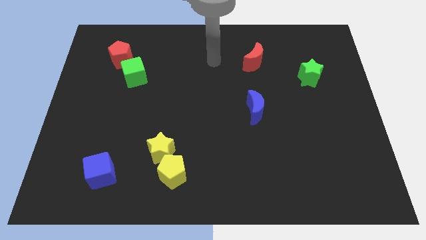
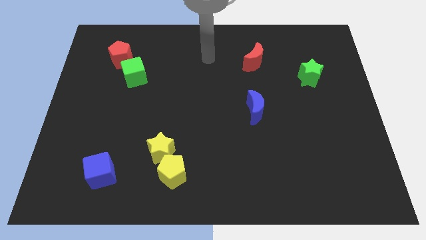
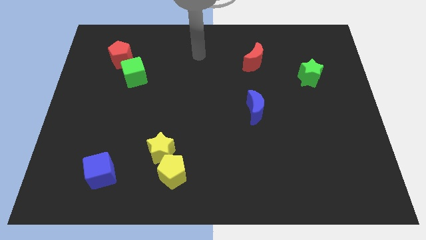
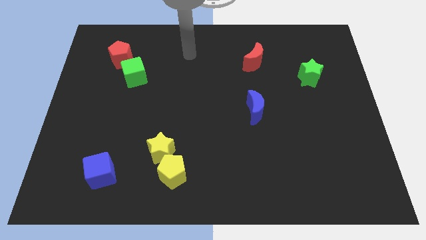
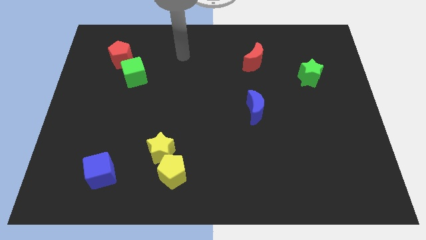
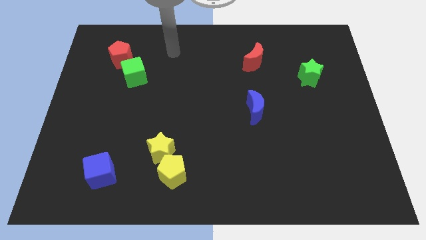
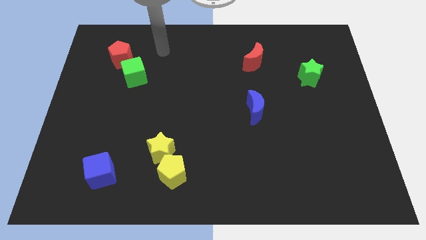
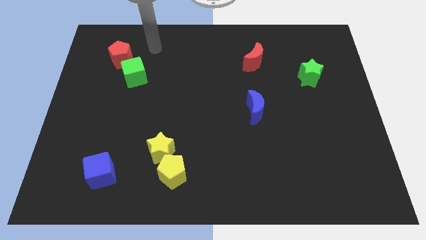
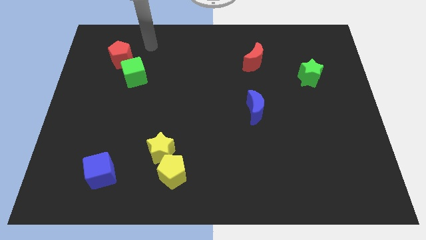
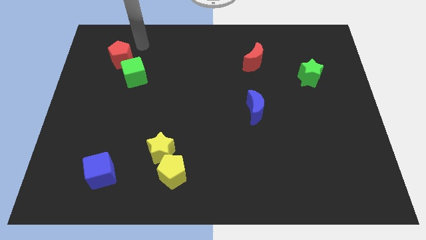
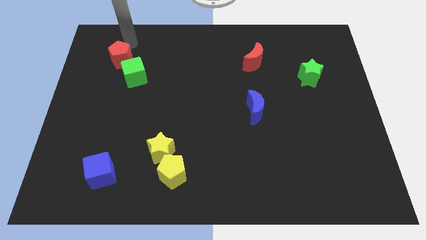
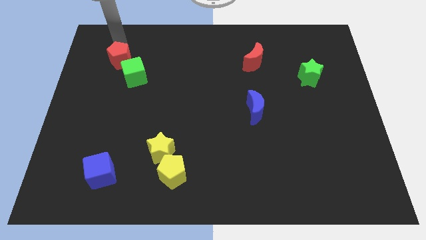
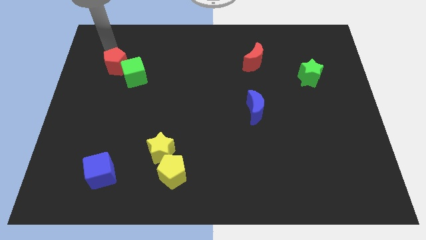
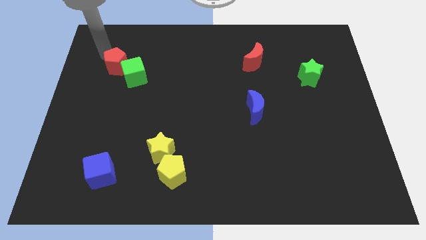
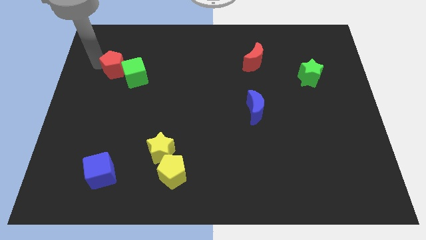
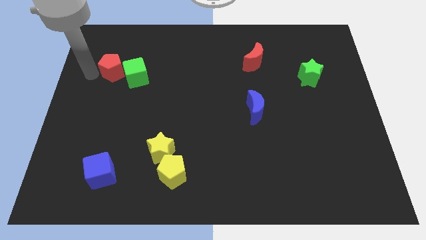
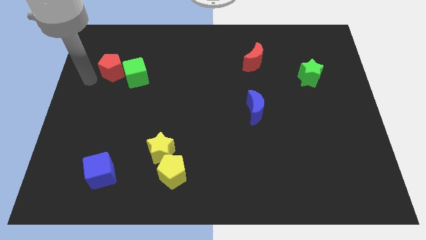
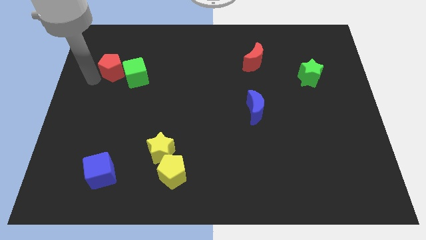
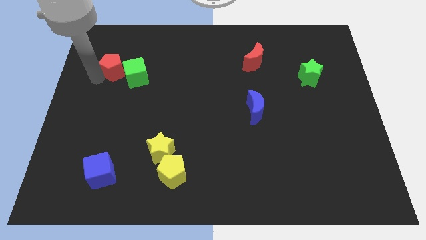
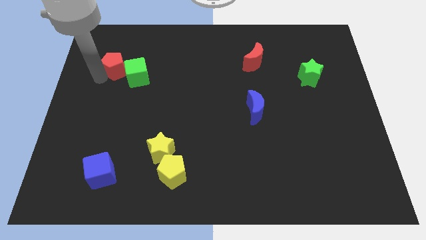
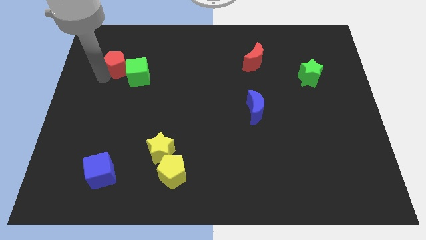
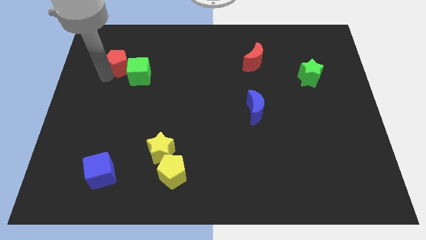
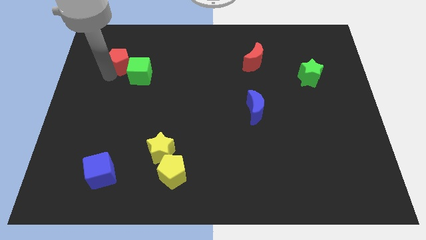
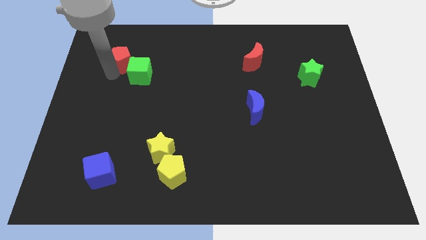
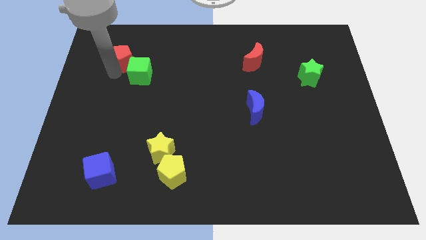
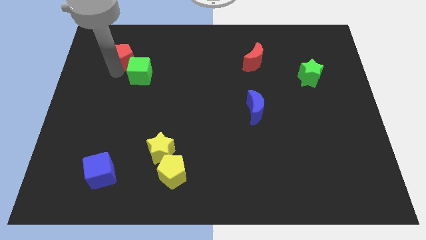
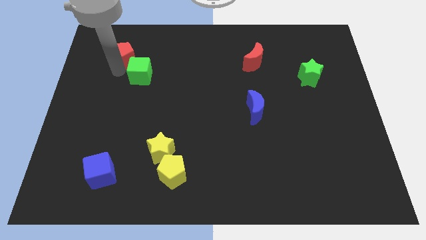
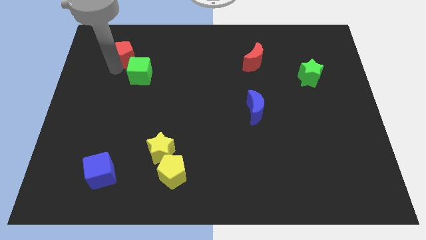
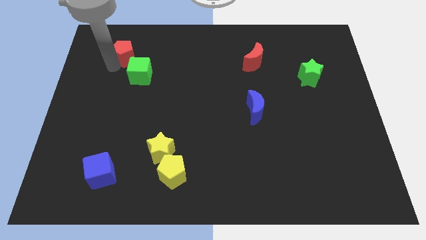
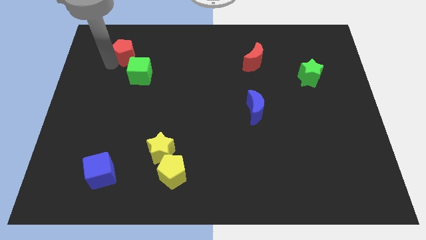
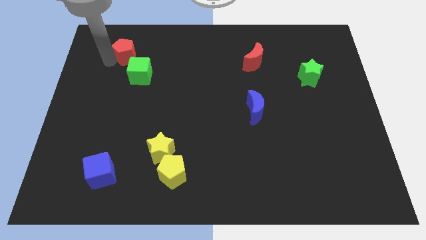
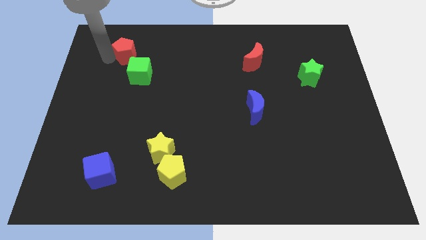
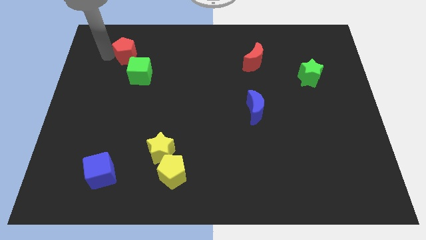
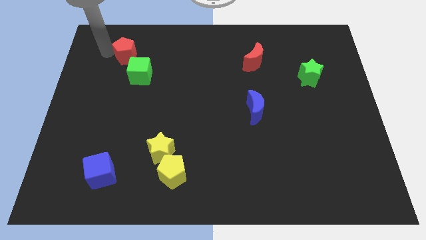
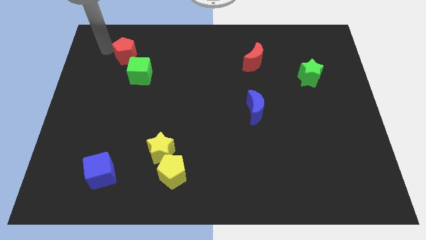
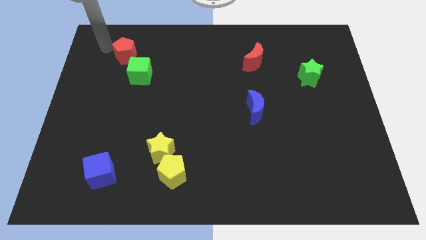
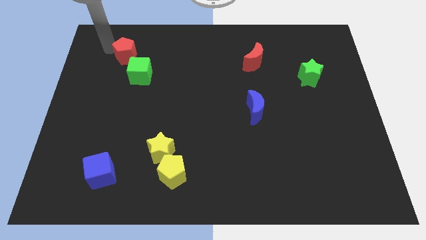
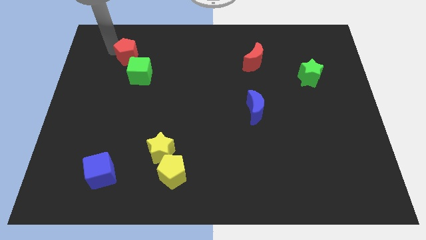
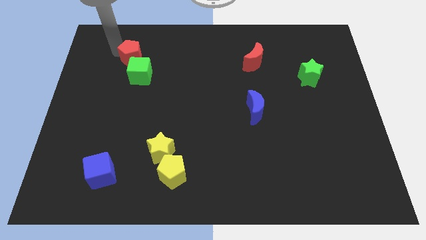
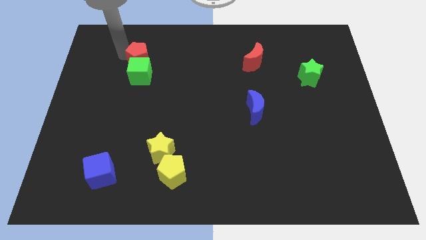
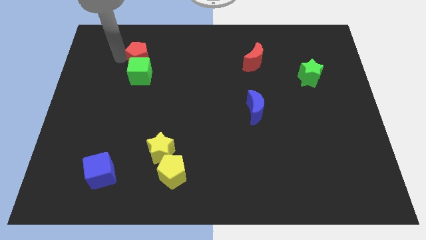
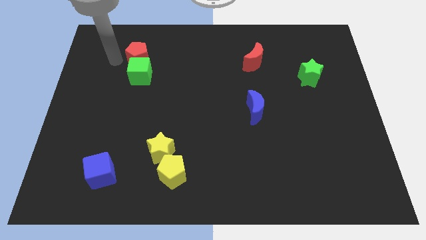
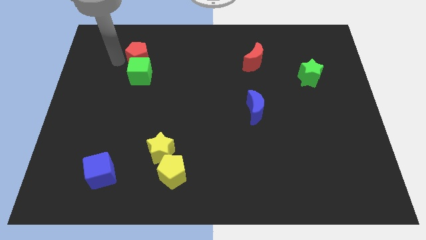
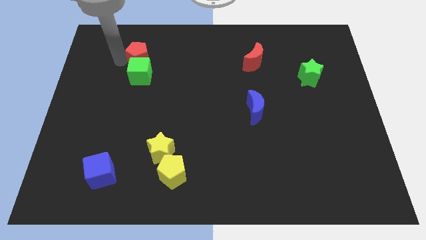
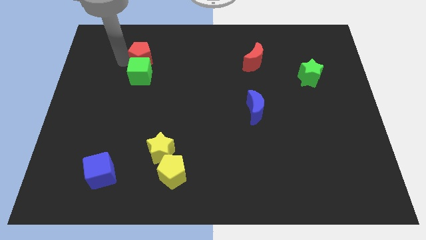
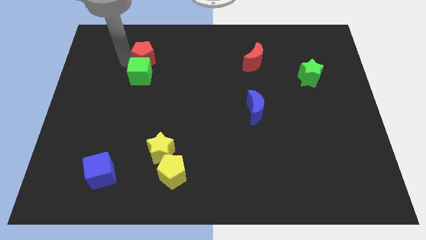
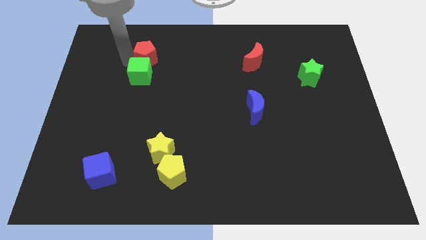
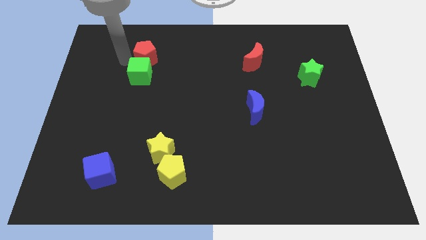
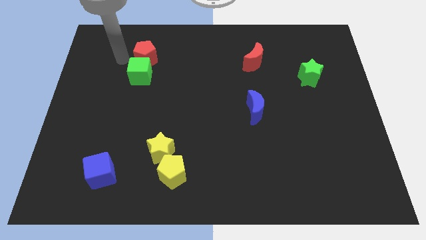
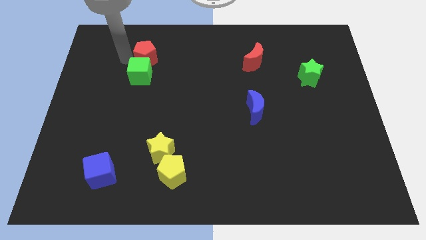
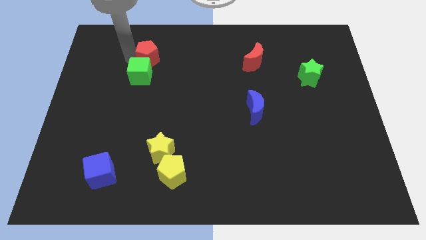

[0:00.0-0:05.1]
move the red pentagon a little bit to the right

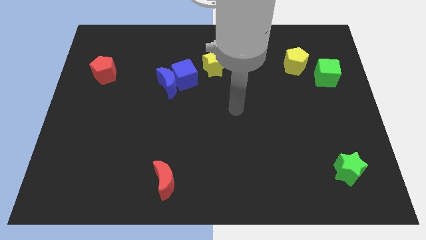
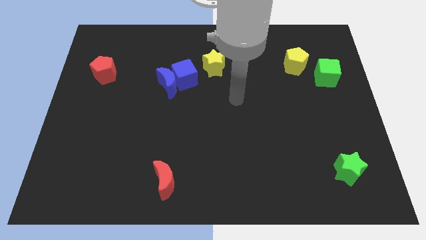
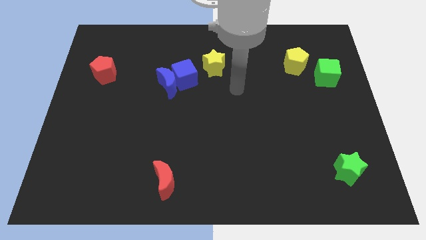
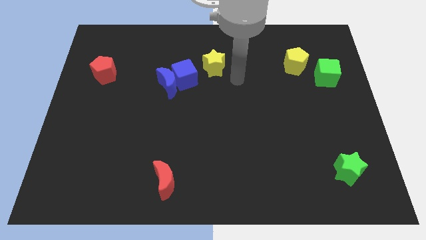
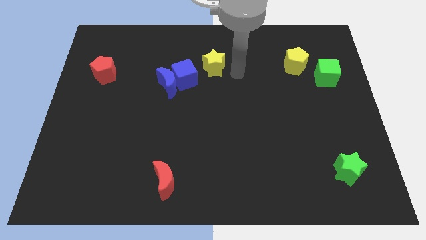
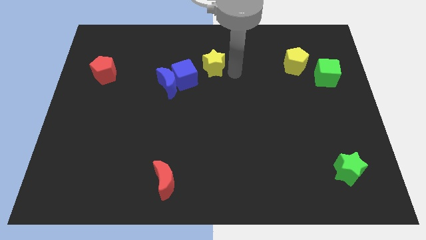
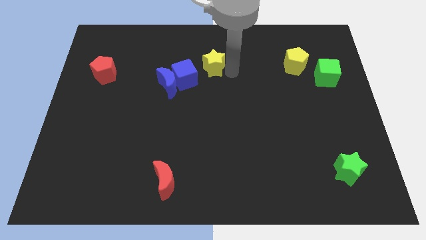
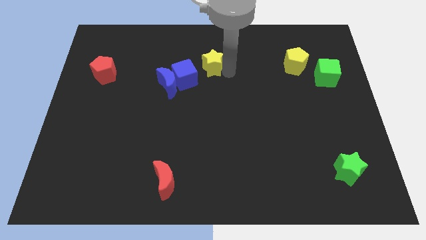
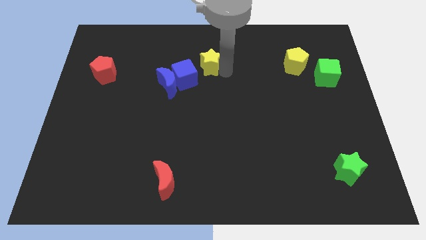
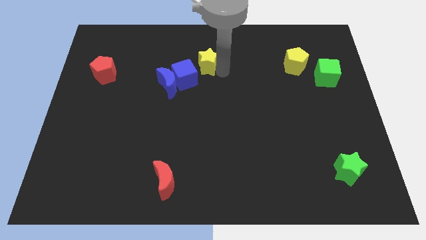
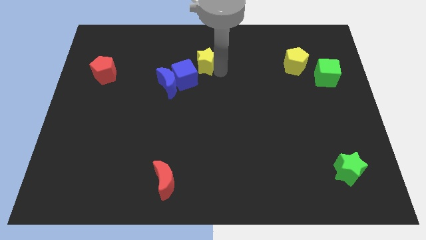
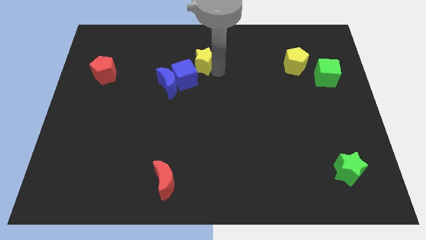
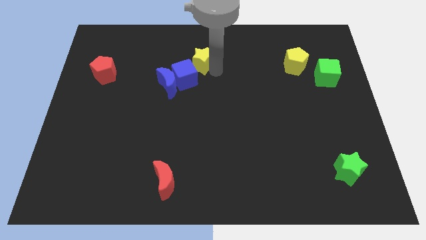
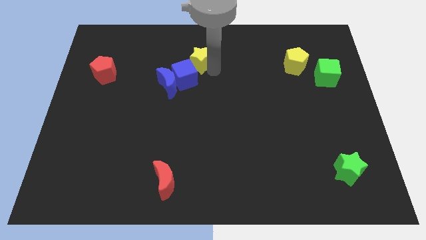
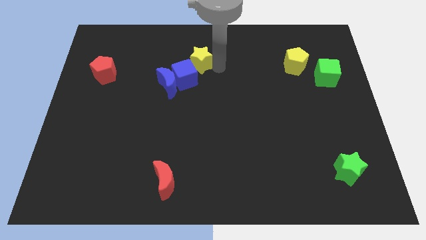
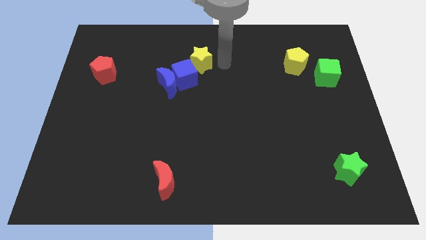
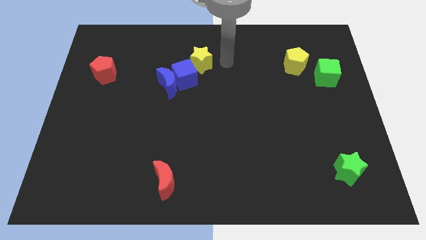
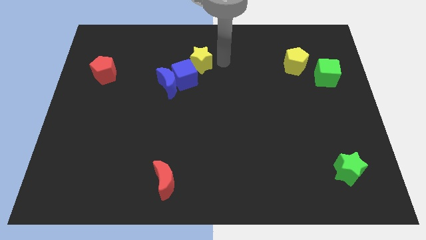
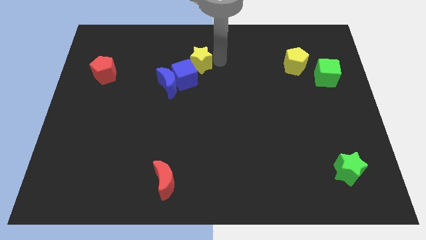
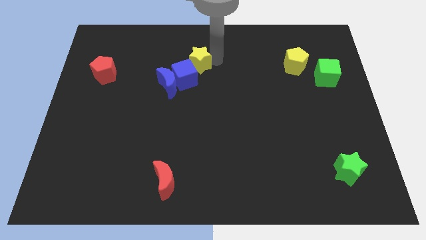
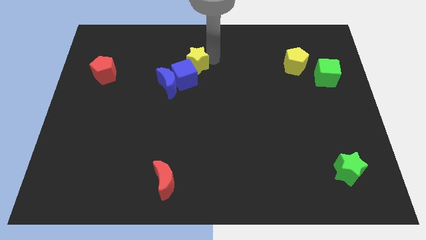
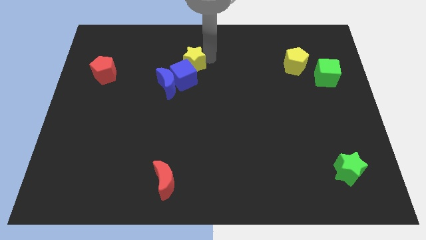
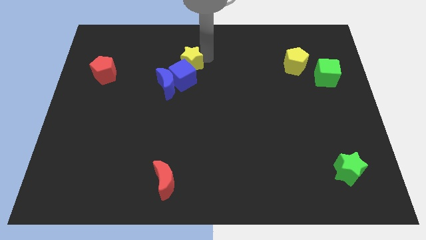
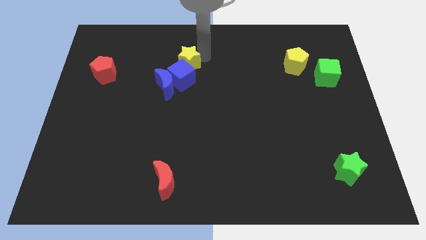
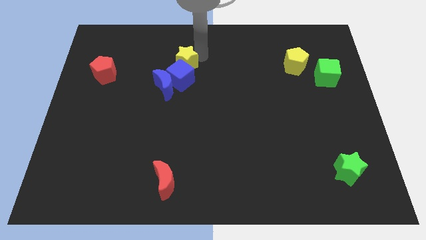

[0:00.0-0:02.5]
push the yellow star to the left slightly

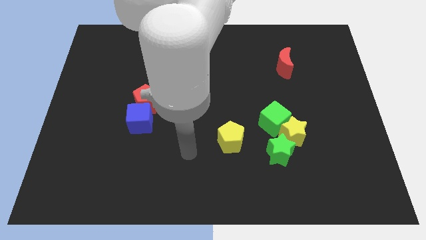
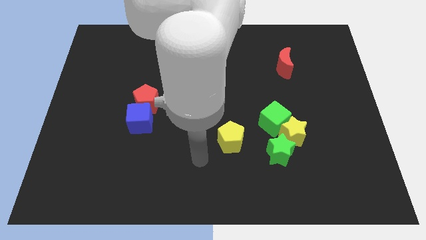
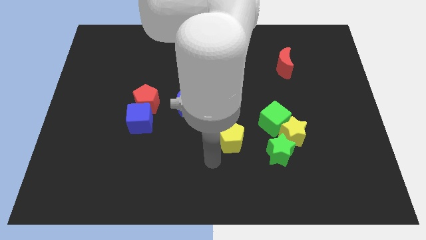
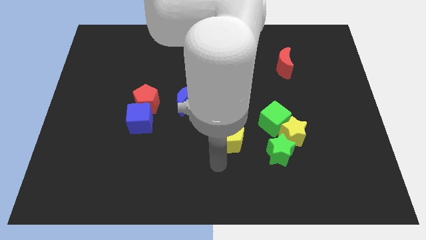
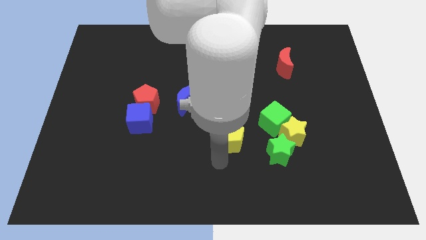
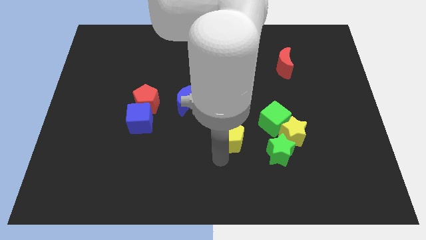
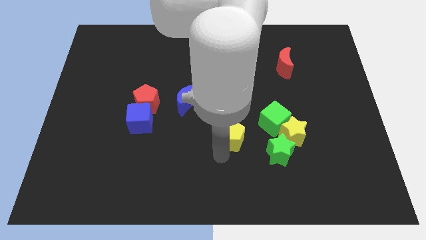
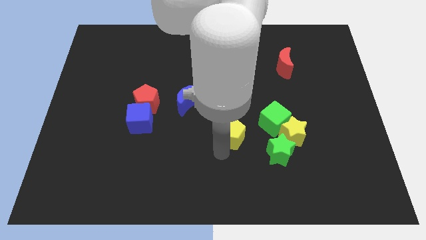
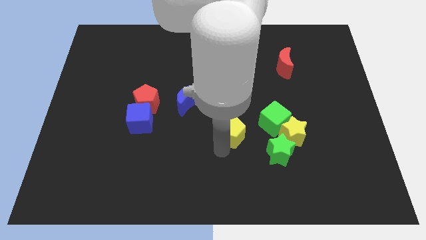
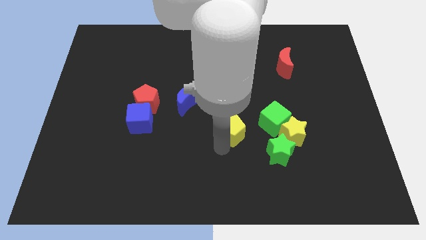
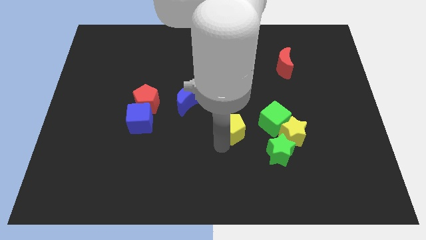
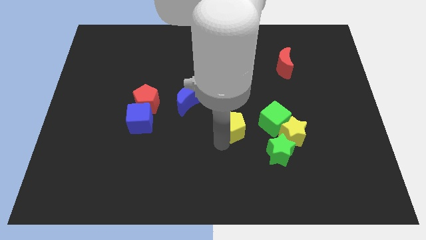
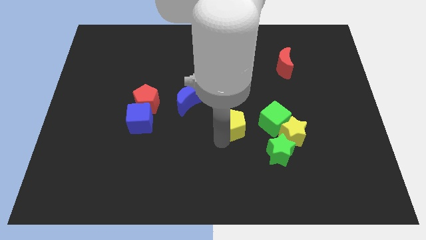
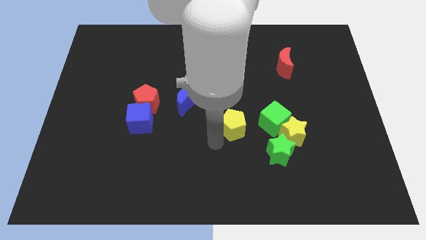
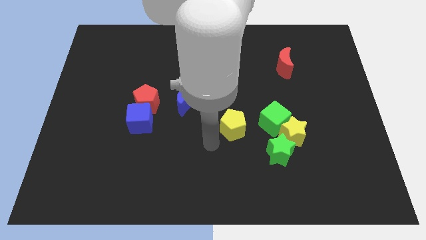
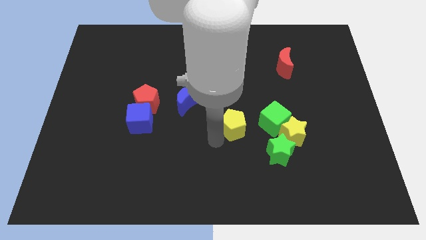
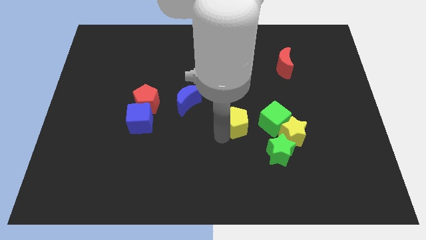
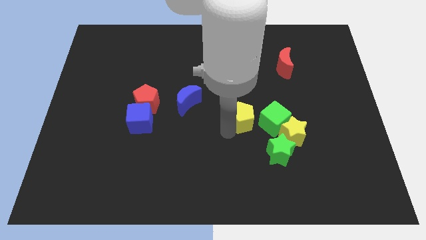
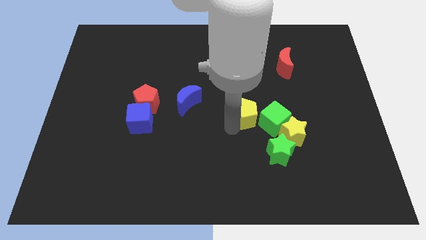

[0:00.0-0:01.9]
move the yellow pentagon up and then to the right a little
